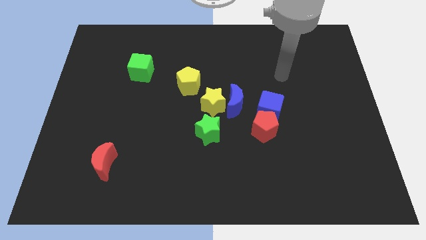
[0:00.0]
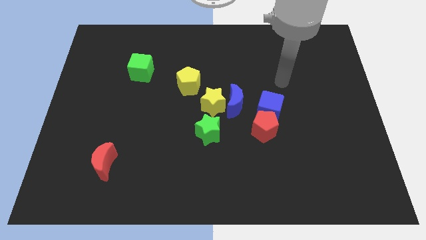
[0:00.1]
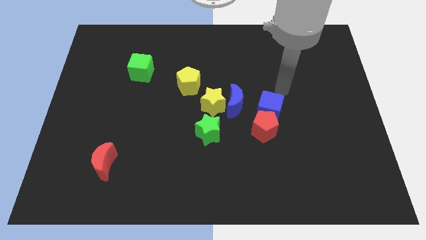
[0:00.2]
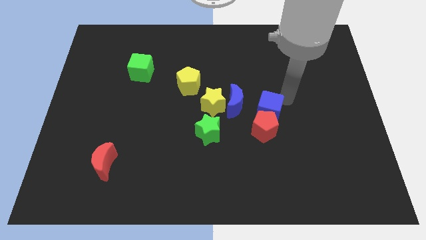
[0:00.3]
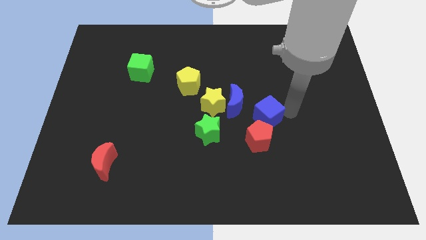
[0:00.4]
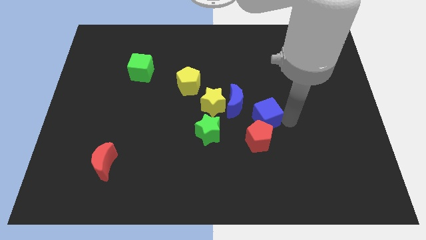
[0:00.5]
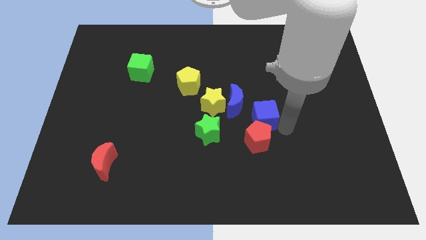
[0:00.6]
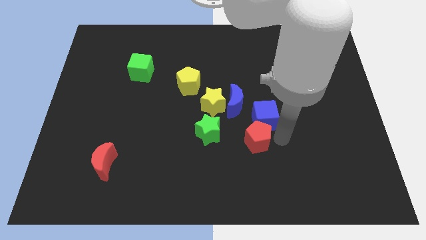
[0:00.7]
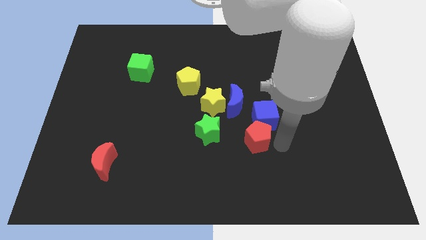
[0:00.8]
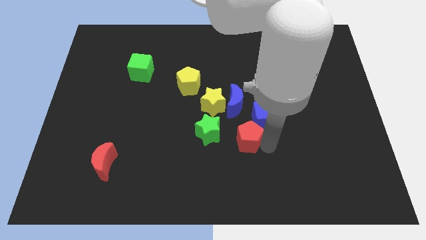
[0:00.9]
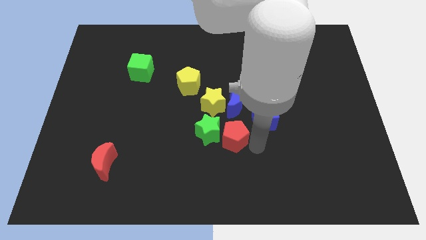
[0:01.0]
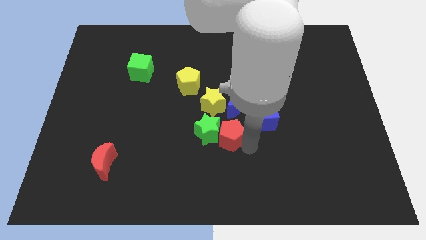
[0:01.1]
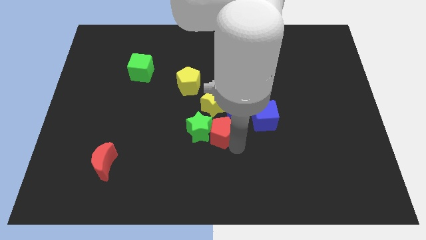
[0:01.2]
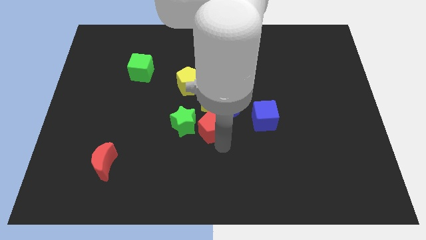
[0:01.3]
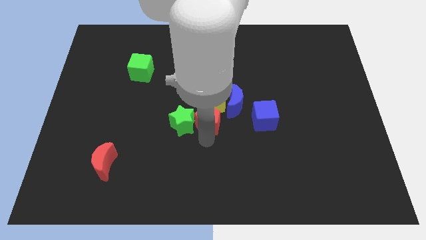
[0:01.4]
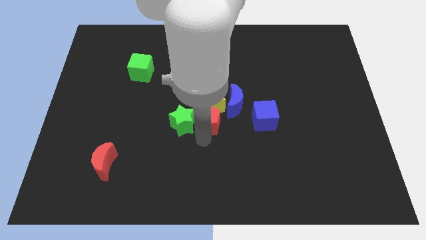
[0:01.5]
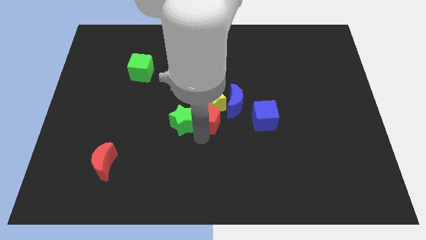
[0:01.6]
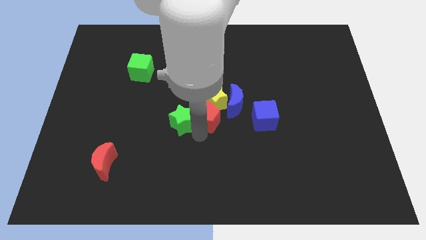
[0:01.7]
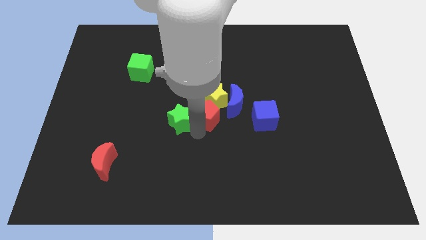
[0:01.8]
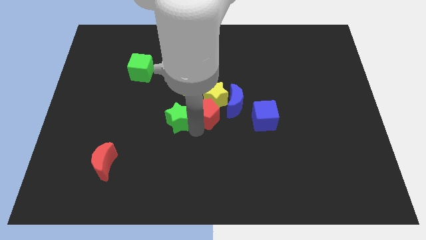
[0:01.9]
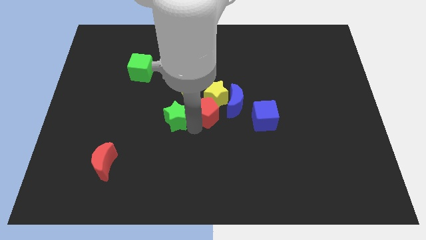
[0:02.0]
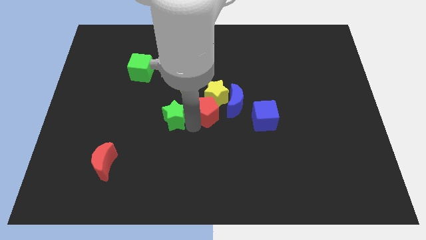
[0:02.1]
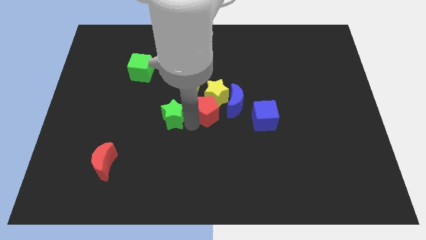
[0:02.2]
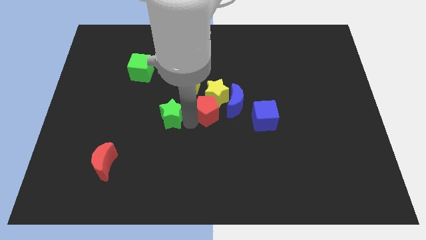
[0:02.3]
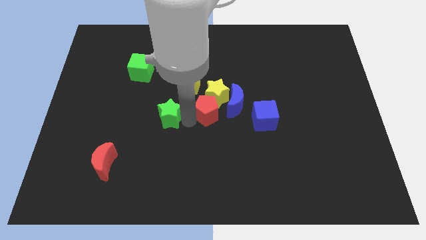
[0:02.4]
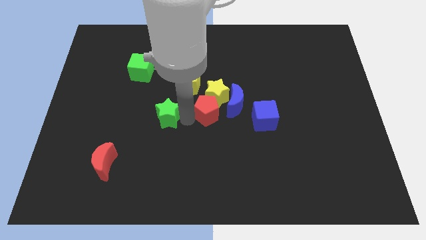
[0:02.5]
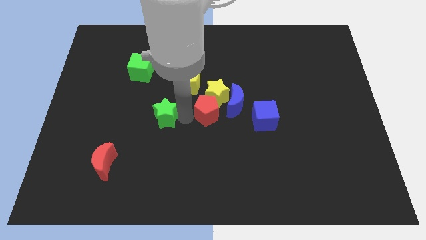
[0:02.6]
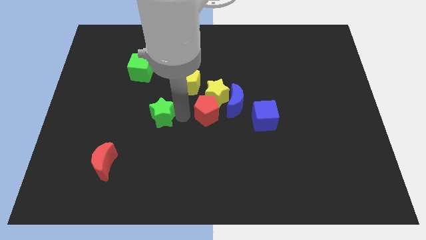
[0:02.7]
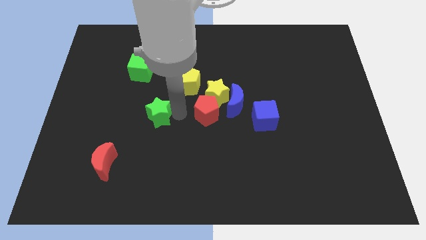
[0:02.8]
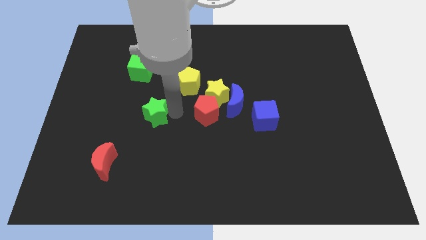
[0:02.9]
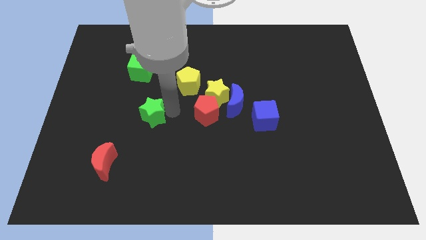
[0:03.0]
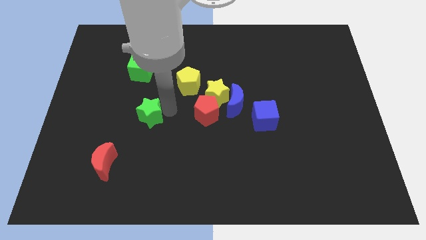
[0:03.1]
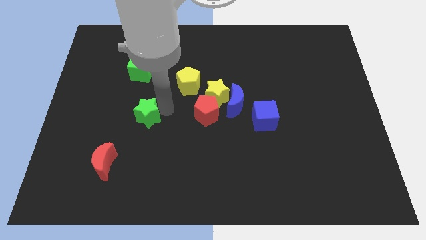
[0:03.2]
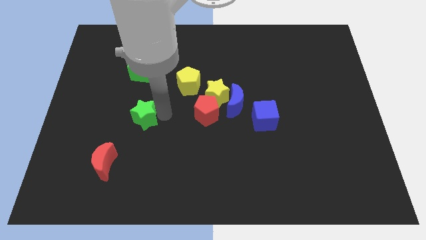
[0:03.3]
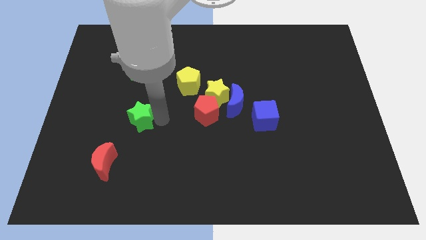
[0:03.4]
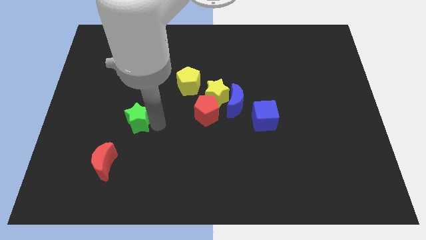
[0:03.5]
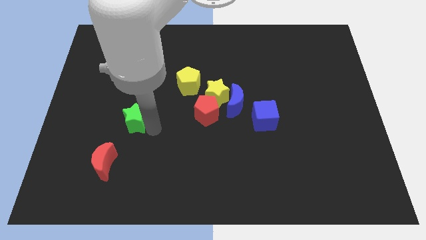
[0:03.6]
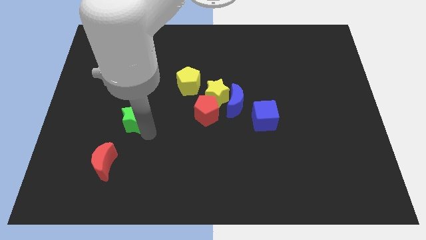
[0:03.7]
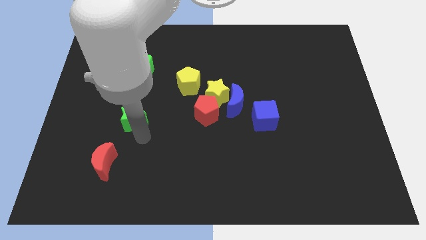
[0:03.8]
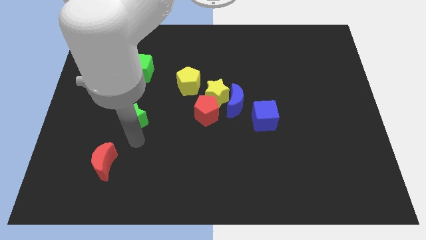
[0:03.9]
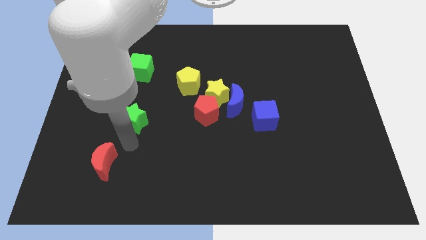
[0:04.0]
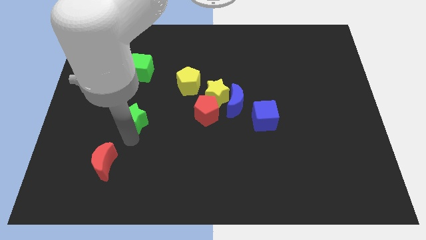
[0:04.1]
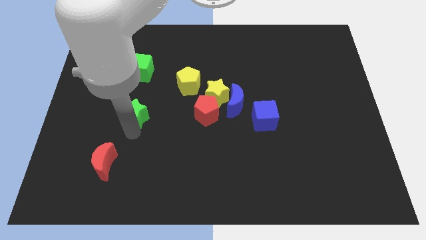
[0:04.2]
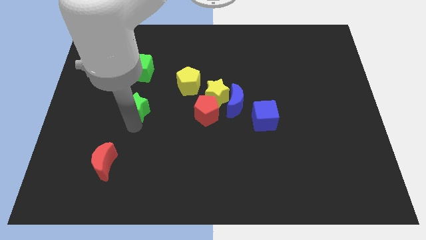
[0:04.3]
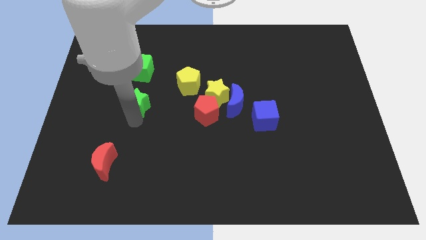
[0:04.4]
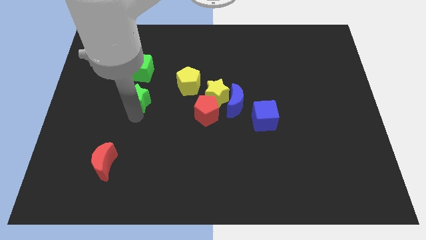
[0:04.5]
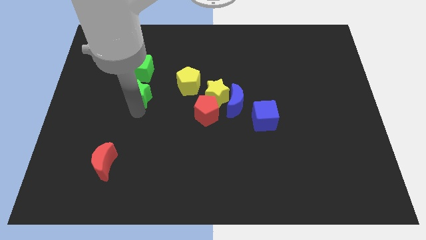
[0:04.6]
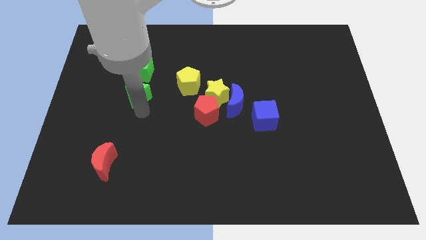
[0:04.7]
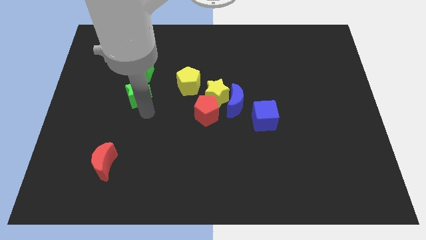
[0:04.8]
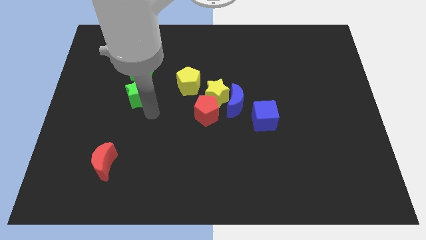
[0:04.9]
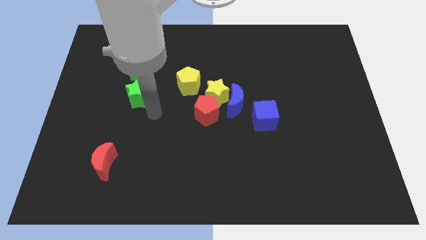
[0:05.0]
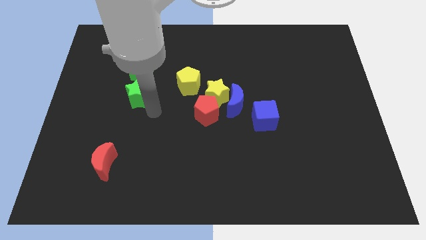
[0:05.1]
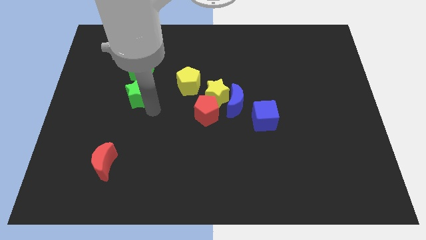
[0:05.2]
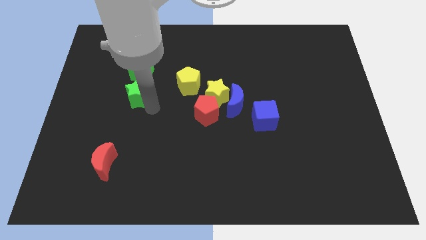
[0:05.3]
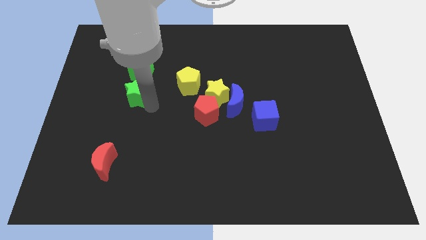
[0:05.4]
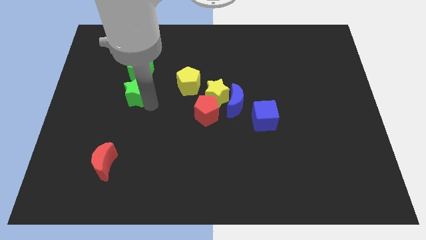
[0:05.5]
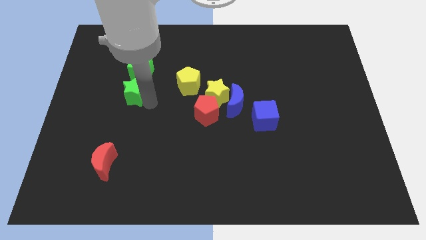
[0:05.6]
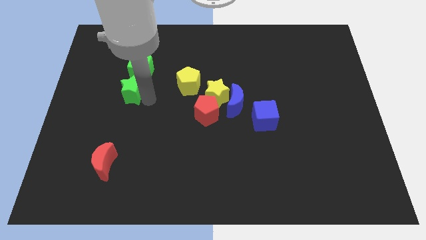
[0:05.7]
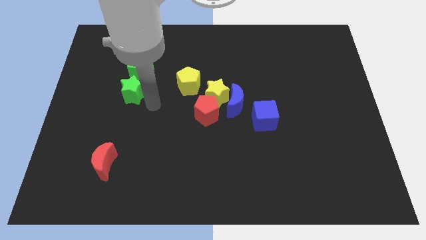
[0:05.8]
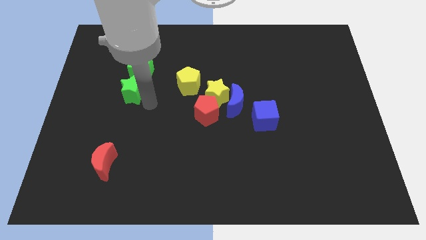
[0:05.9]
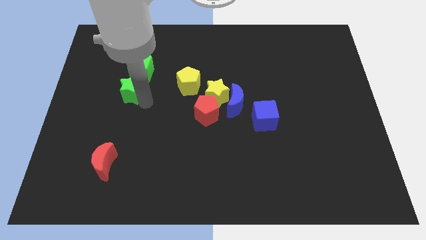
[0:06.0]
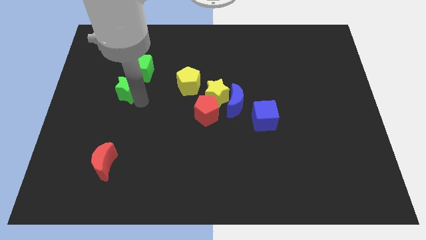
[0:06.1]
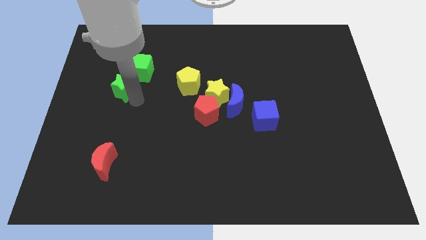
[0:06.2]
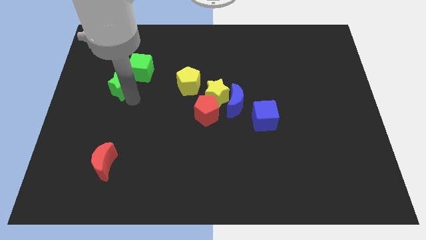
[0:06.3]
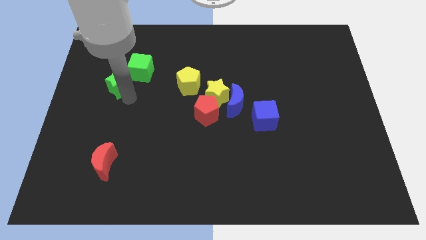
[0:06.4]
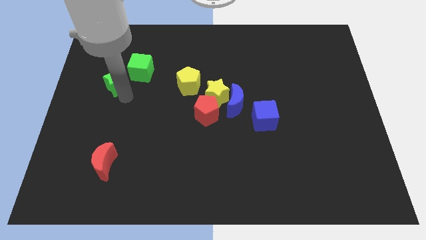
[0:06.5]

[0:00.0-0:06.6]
put the green star left of the green cube

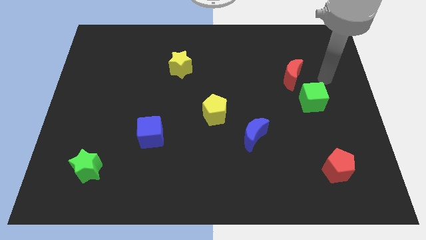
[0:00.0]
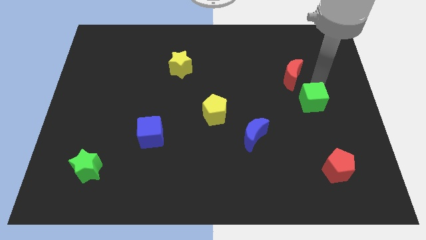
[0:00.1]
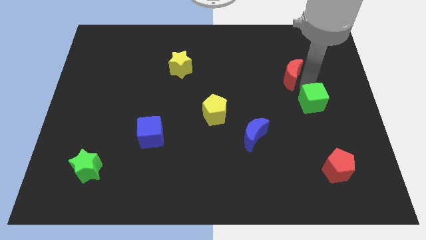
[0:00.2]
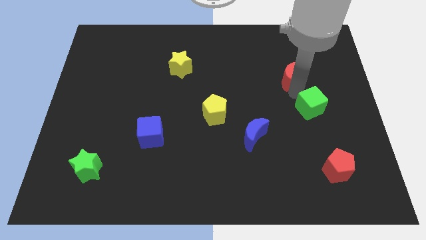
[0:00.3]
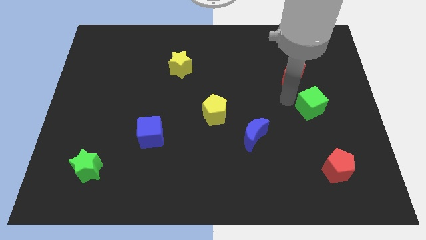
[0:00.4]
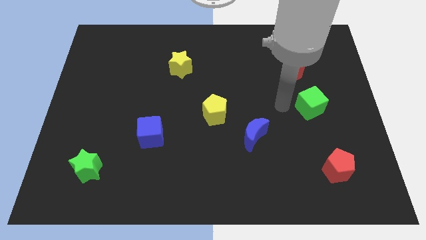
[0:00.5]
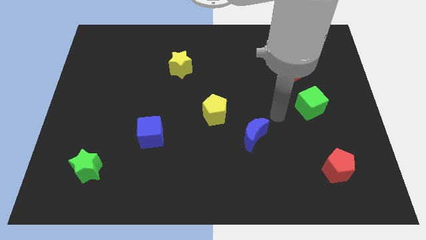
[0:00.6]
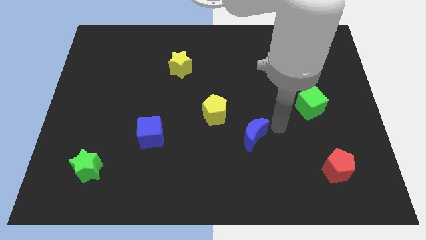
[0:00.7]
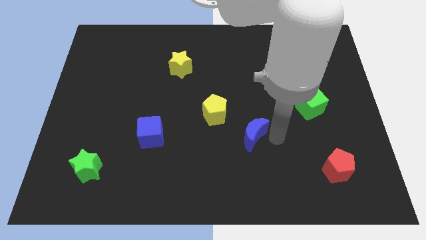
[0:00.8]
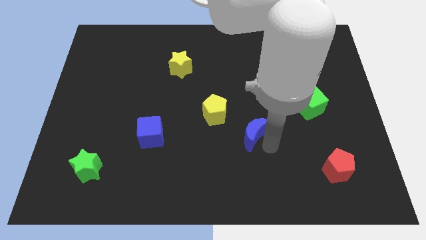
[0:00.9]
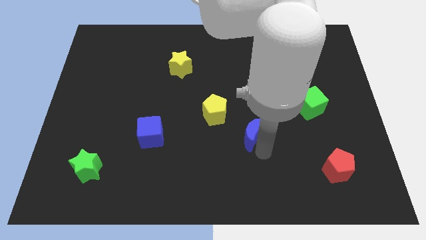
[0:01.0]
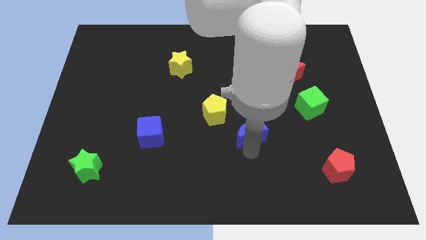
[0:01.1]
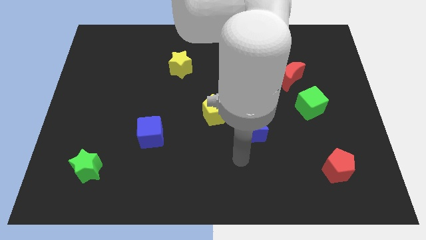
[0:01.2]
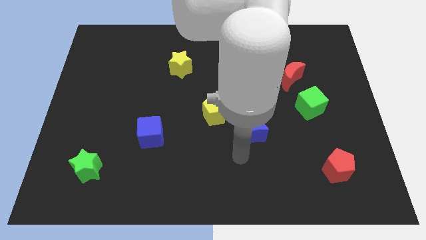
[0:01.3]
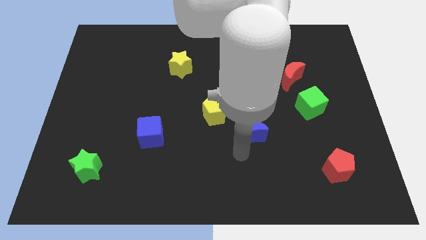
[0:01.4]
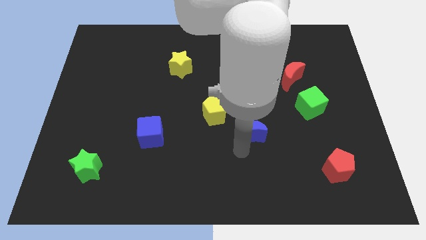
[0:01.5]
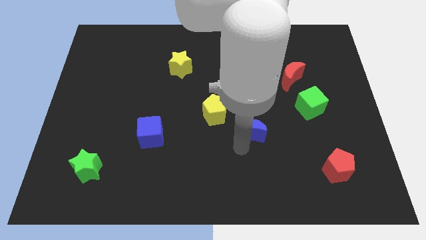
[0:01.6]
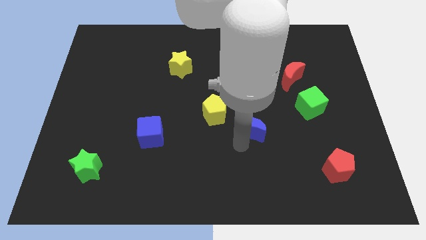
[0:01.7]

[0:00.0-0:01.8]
slide the blue moon to the right of the yellow pentagon
